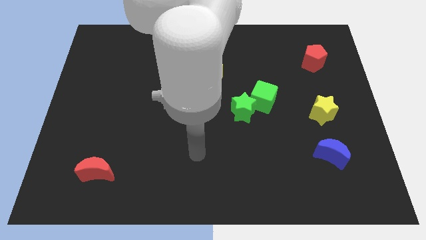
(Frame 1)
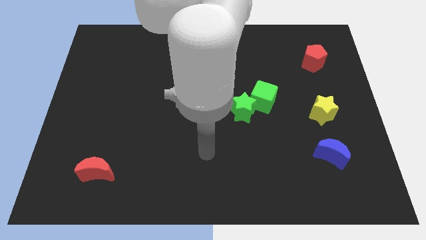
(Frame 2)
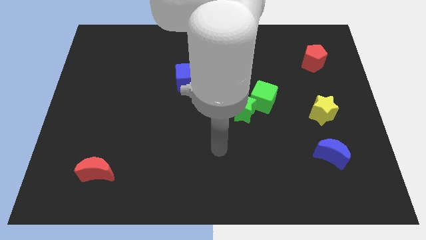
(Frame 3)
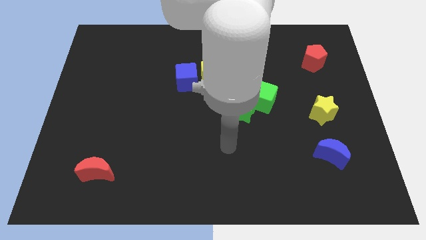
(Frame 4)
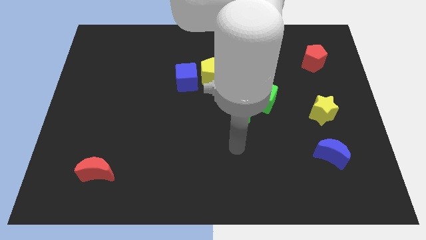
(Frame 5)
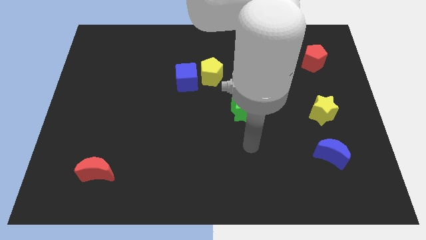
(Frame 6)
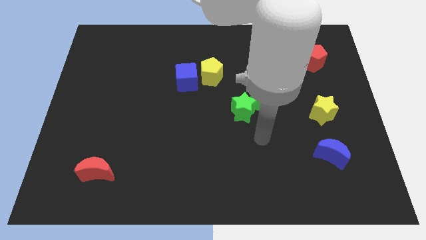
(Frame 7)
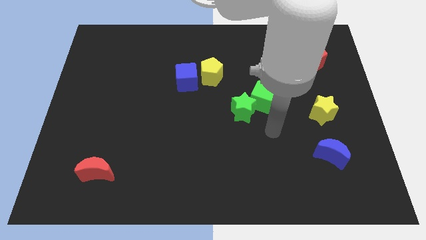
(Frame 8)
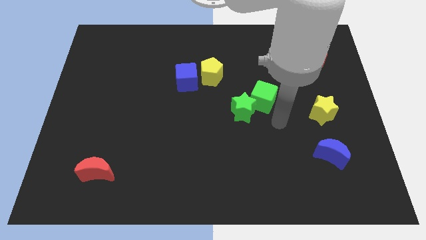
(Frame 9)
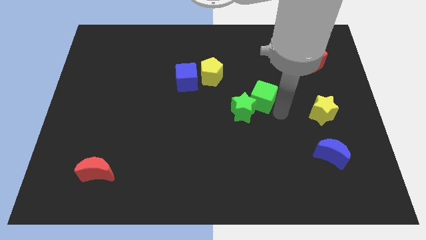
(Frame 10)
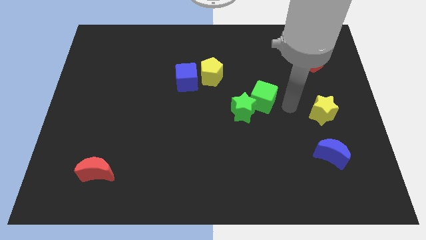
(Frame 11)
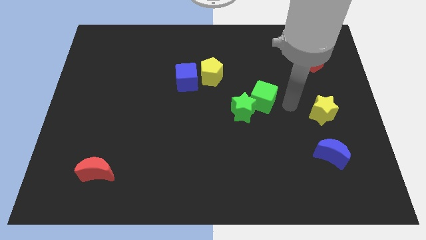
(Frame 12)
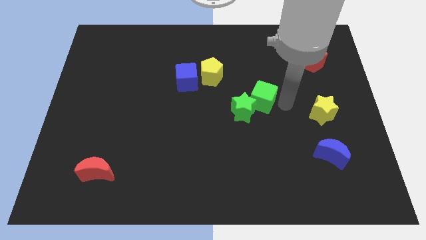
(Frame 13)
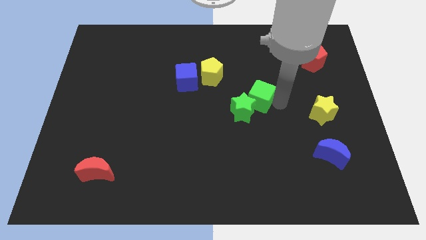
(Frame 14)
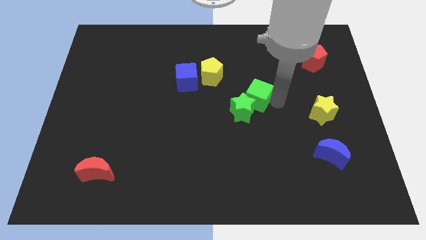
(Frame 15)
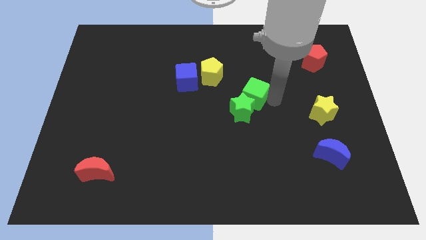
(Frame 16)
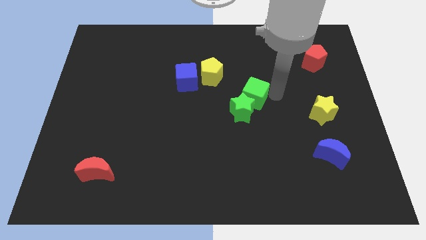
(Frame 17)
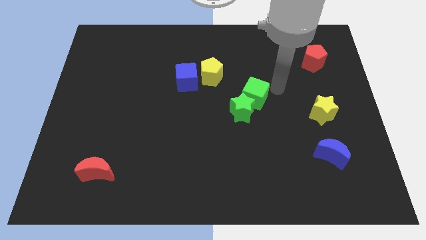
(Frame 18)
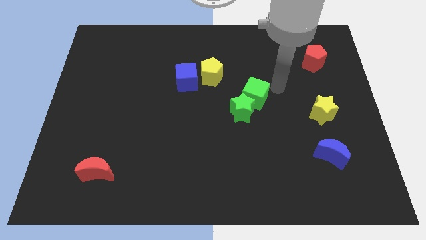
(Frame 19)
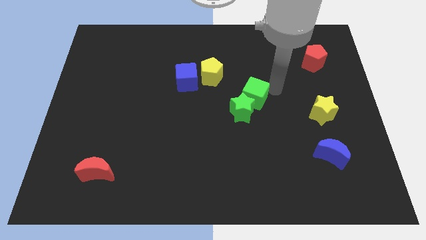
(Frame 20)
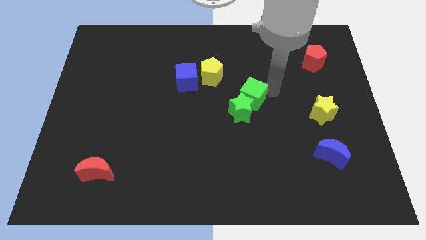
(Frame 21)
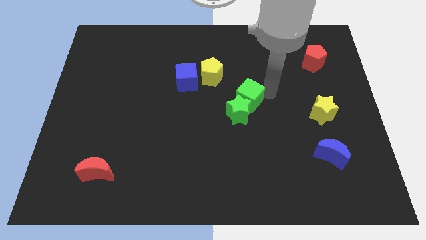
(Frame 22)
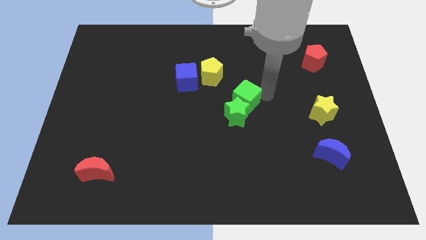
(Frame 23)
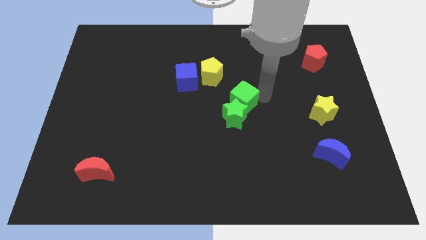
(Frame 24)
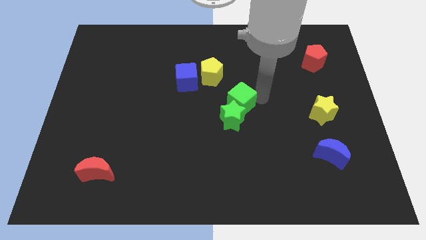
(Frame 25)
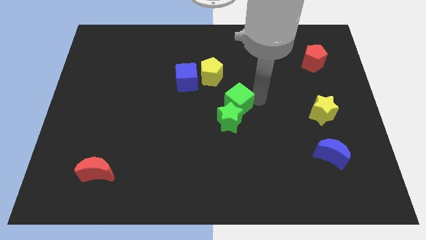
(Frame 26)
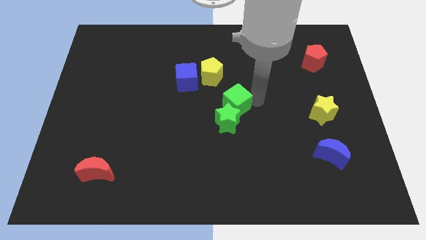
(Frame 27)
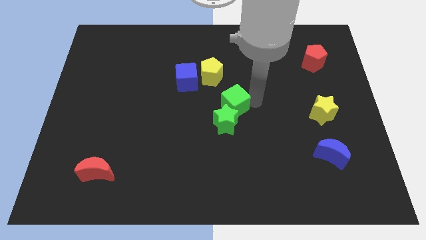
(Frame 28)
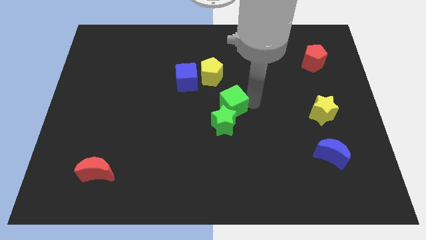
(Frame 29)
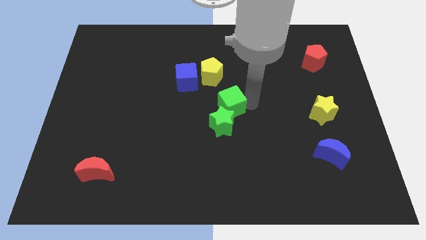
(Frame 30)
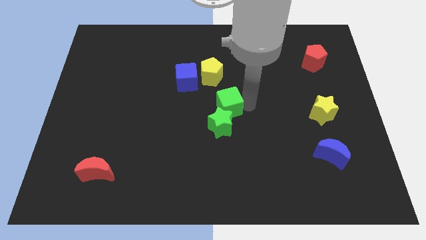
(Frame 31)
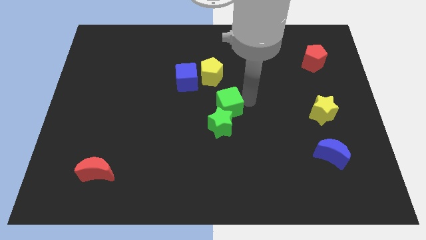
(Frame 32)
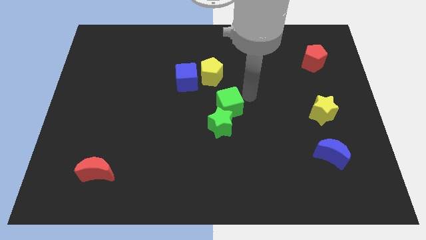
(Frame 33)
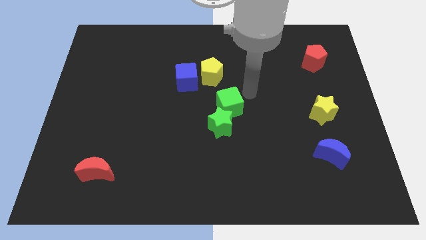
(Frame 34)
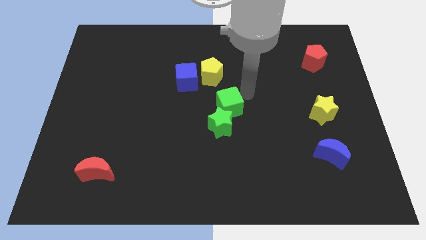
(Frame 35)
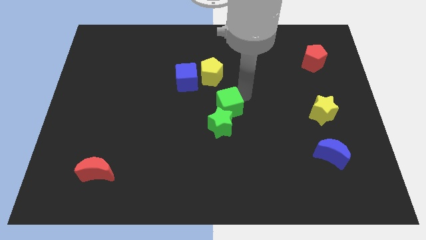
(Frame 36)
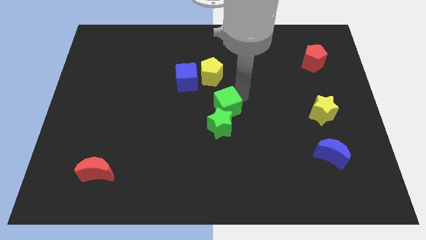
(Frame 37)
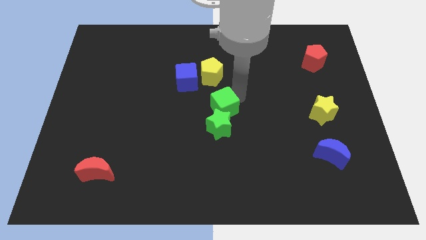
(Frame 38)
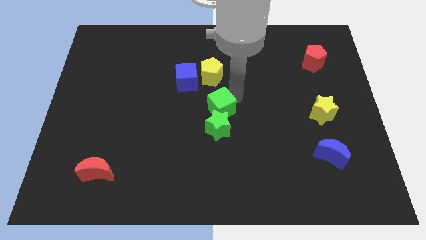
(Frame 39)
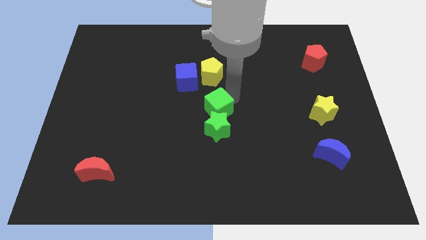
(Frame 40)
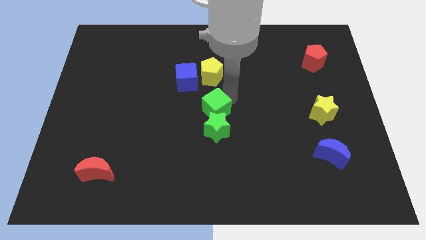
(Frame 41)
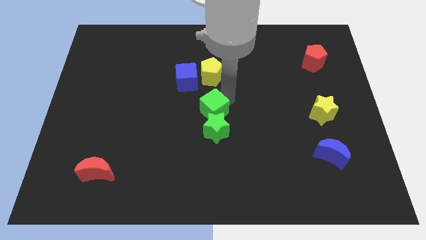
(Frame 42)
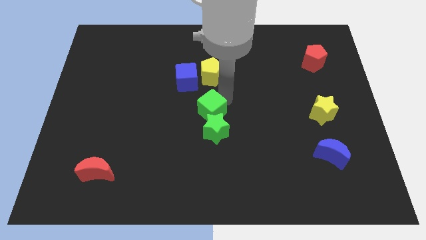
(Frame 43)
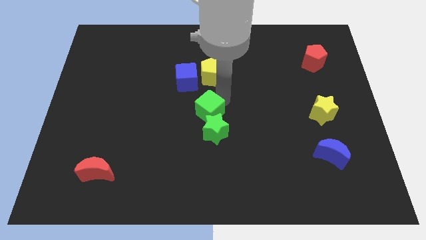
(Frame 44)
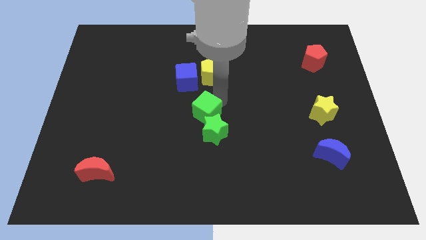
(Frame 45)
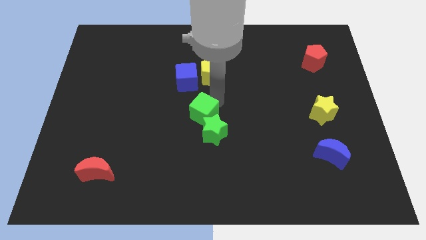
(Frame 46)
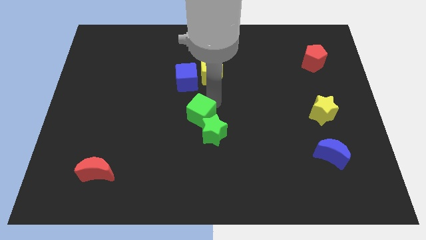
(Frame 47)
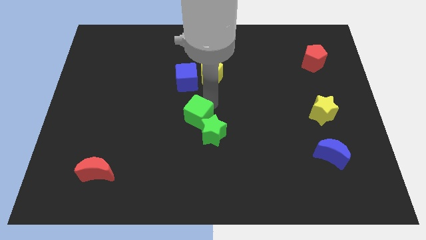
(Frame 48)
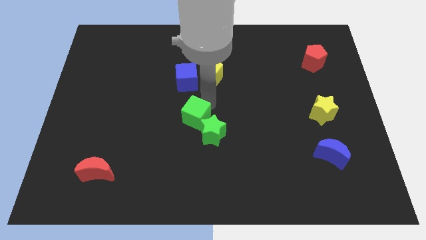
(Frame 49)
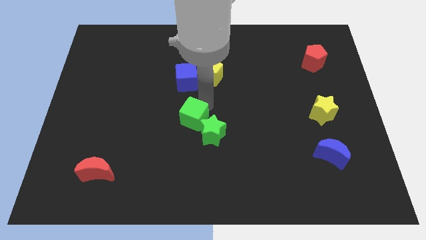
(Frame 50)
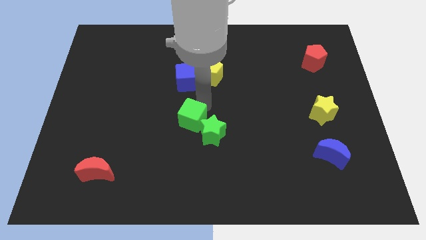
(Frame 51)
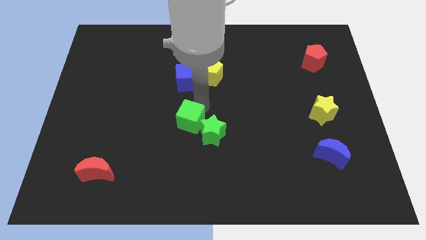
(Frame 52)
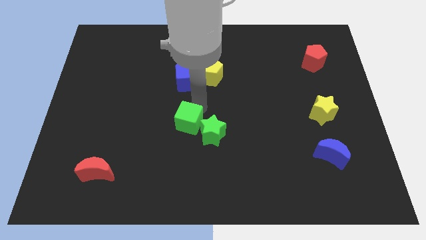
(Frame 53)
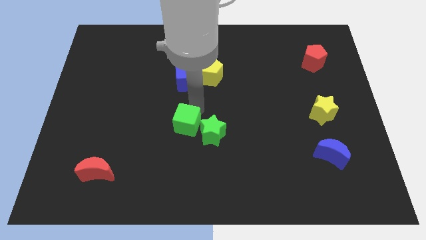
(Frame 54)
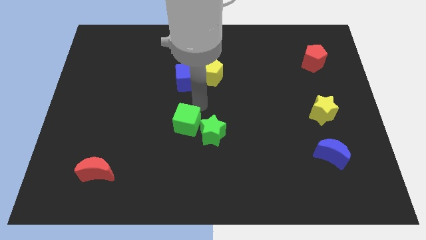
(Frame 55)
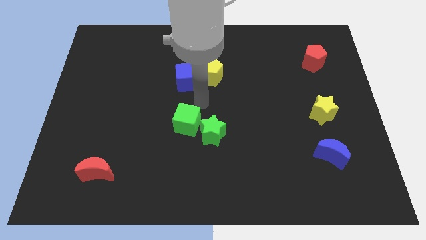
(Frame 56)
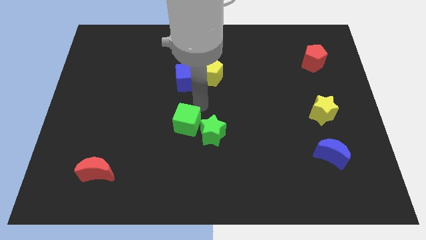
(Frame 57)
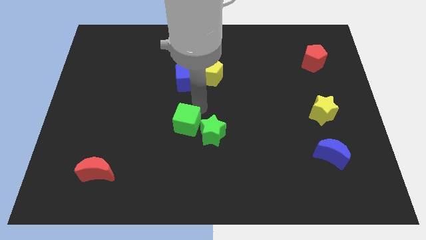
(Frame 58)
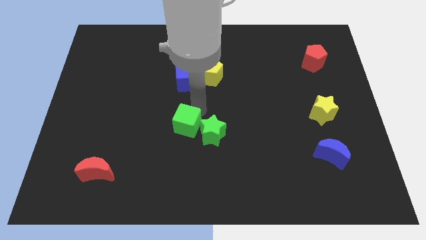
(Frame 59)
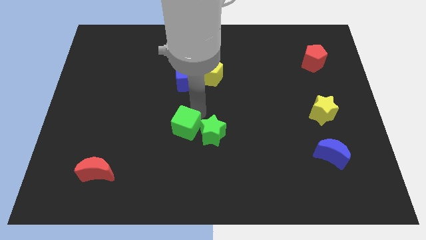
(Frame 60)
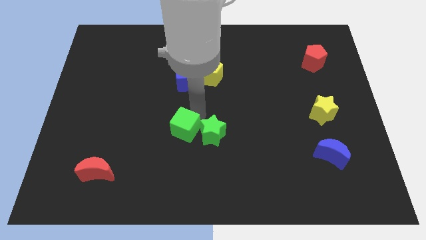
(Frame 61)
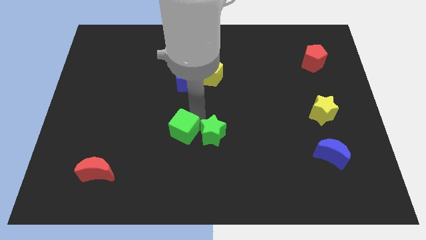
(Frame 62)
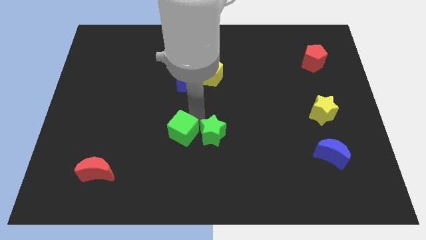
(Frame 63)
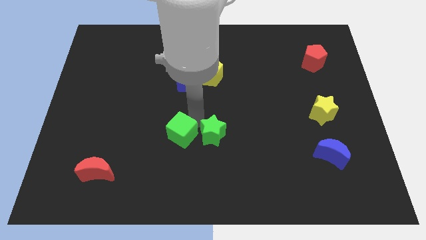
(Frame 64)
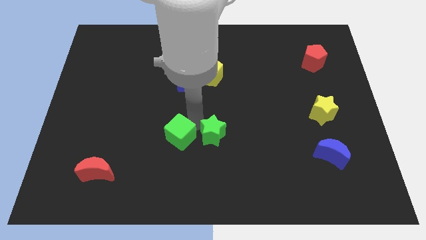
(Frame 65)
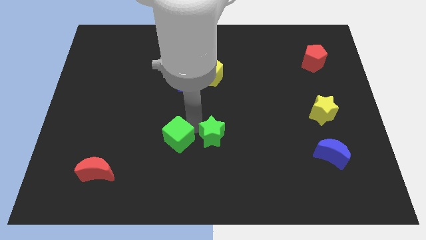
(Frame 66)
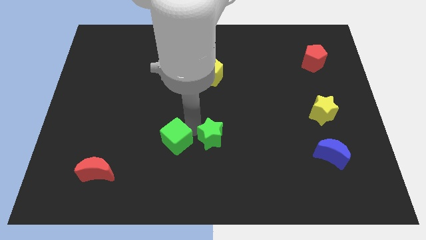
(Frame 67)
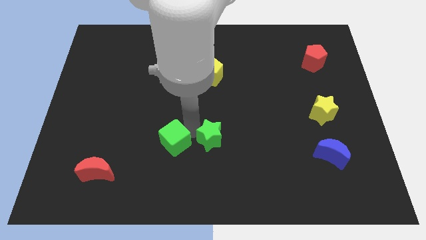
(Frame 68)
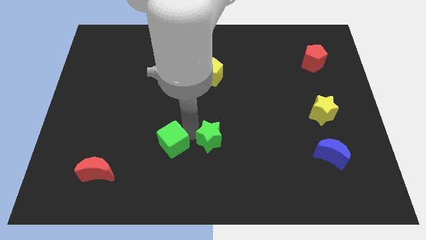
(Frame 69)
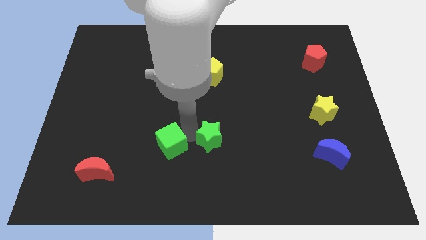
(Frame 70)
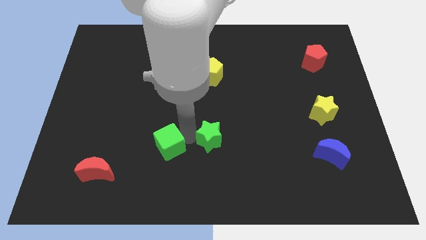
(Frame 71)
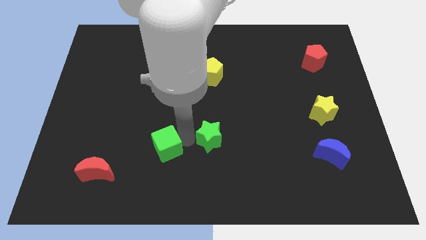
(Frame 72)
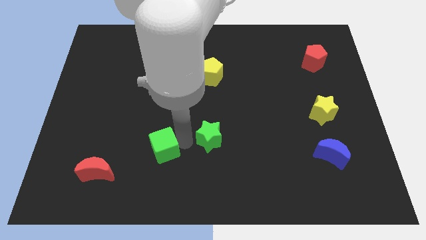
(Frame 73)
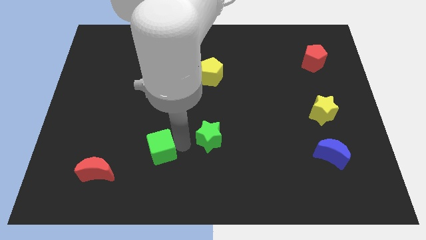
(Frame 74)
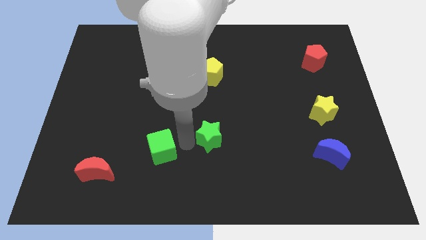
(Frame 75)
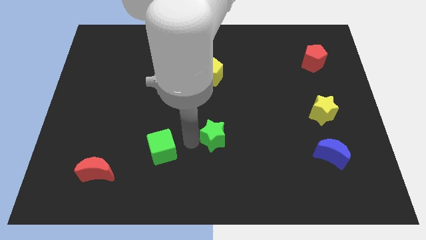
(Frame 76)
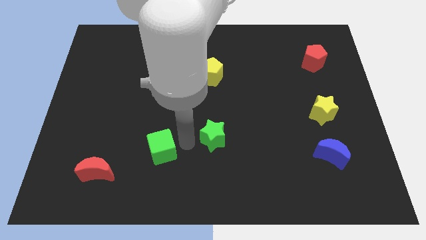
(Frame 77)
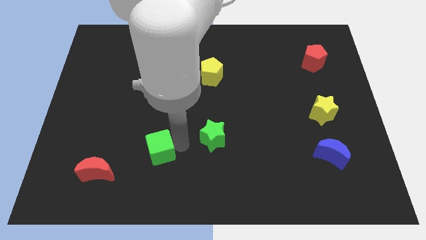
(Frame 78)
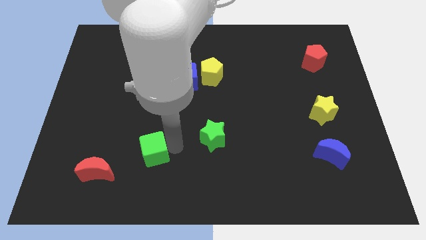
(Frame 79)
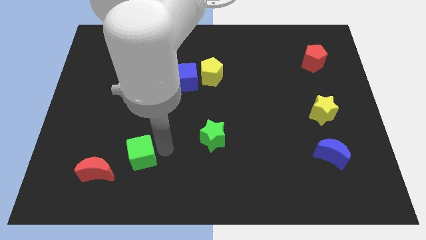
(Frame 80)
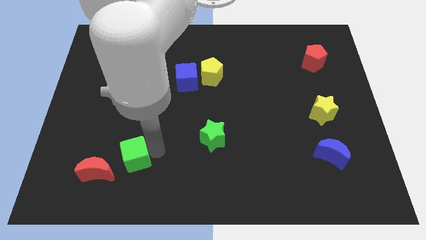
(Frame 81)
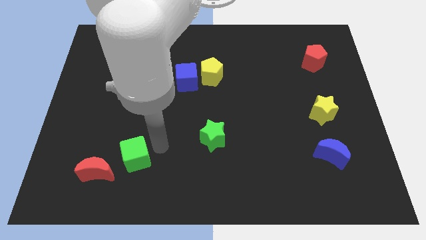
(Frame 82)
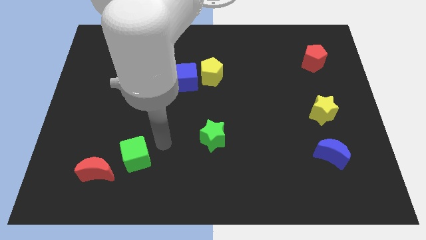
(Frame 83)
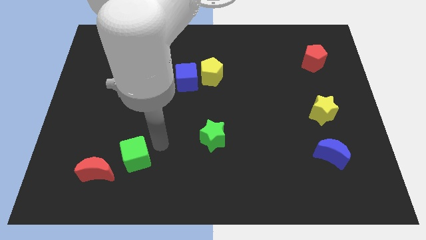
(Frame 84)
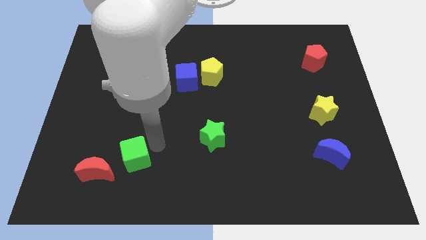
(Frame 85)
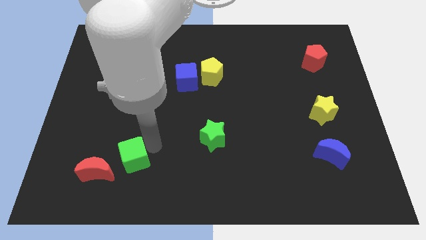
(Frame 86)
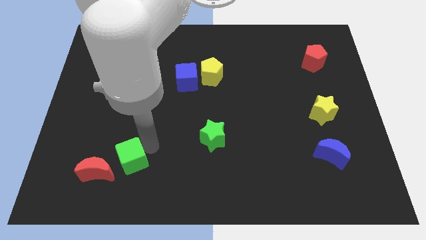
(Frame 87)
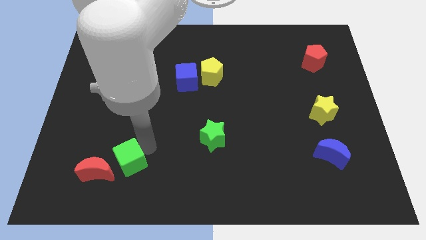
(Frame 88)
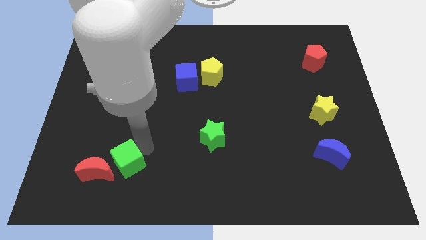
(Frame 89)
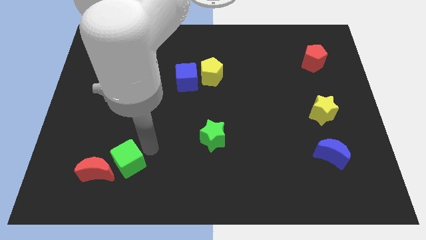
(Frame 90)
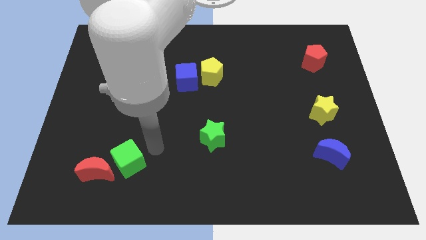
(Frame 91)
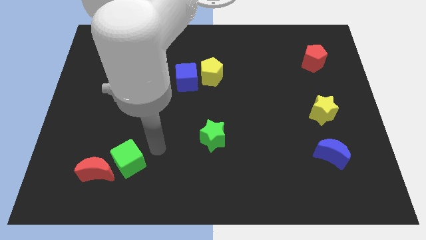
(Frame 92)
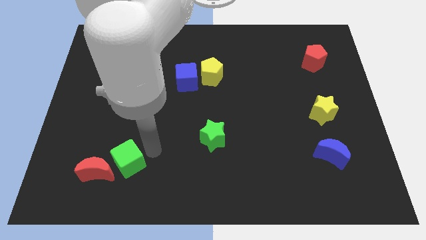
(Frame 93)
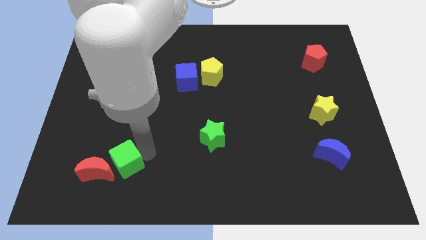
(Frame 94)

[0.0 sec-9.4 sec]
move the green cube to the red moon
